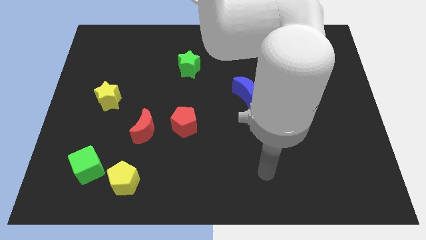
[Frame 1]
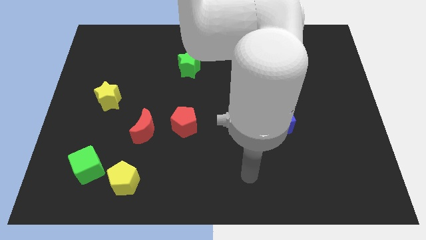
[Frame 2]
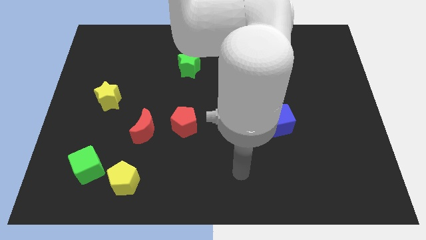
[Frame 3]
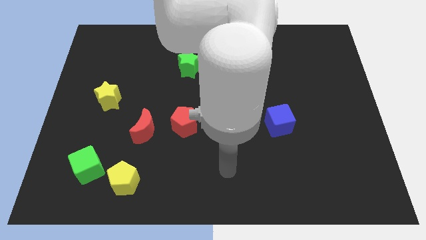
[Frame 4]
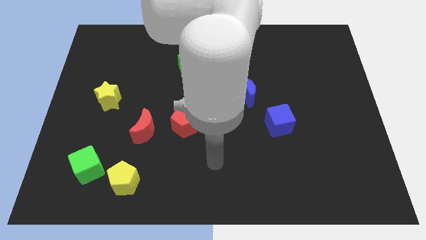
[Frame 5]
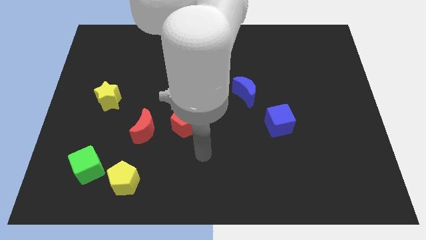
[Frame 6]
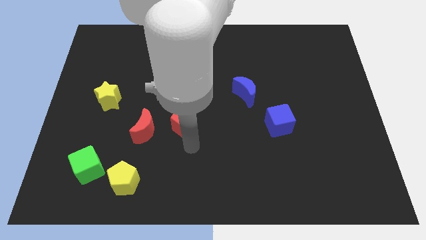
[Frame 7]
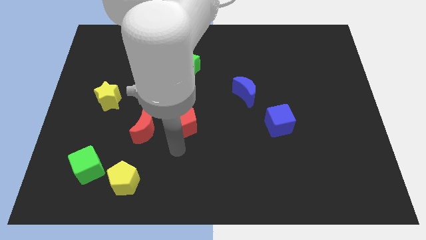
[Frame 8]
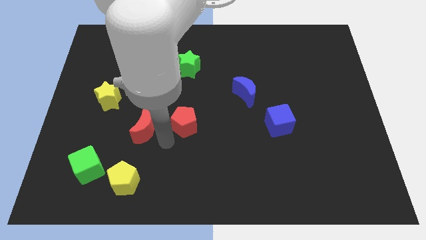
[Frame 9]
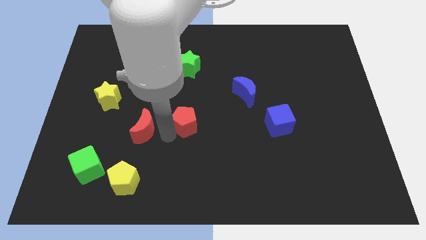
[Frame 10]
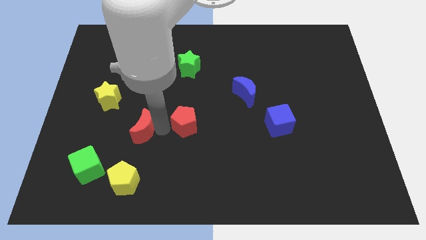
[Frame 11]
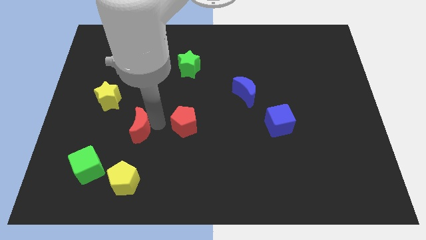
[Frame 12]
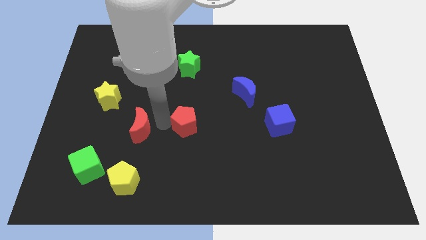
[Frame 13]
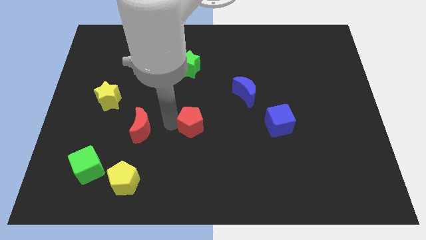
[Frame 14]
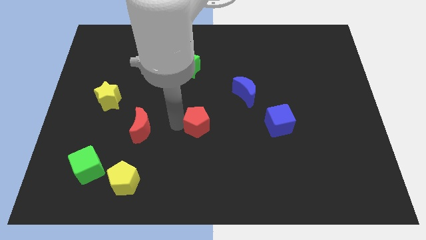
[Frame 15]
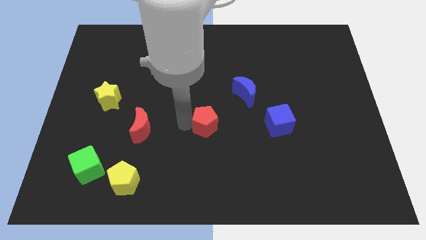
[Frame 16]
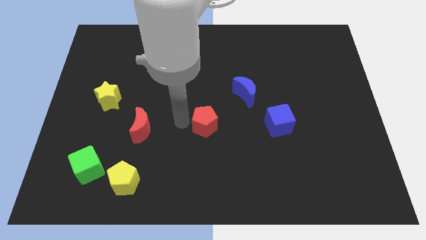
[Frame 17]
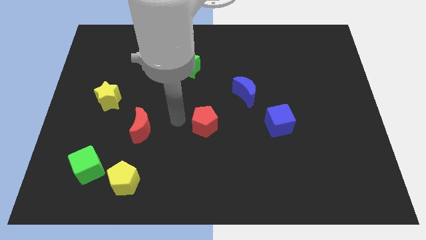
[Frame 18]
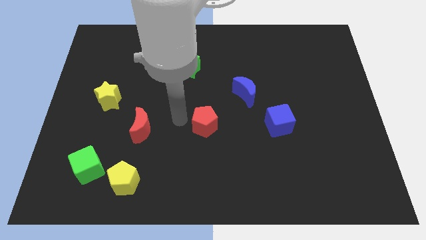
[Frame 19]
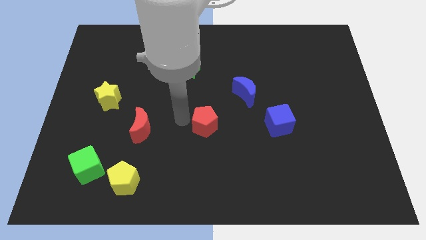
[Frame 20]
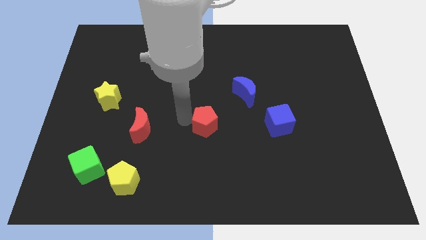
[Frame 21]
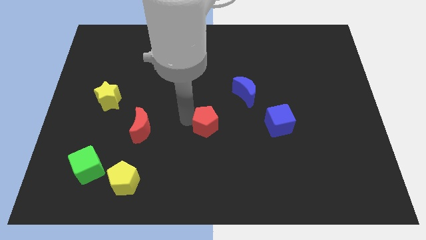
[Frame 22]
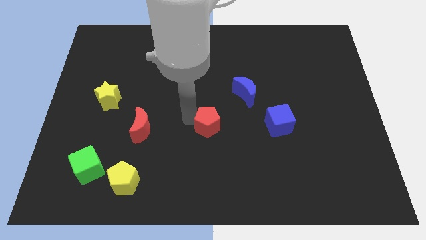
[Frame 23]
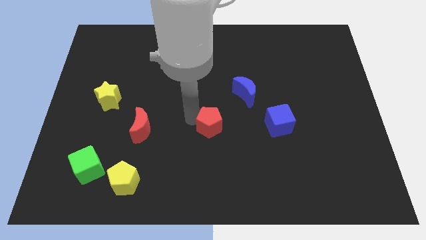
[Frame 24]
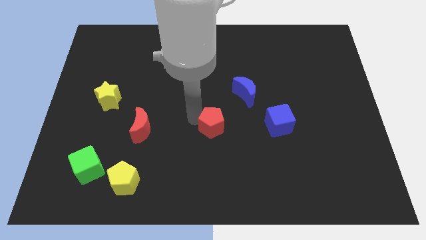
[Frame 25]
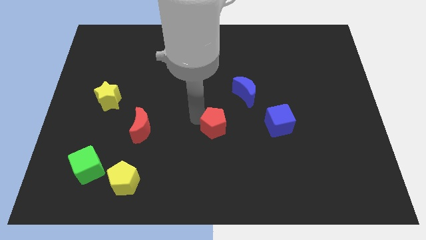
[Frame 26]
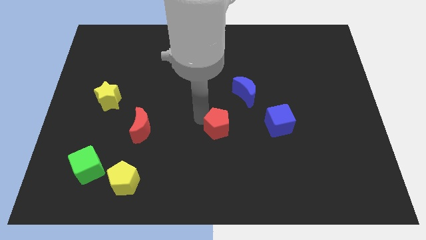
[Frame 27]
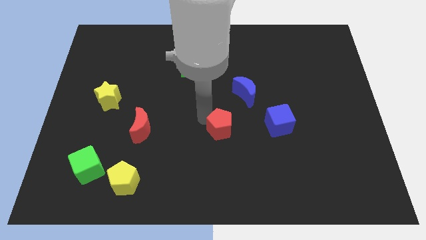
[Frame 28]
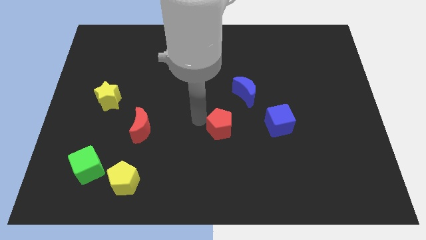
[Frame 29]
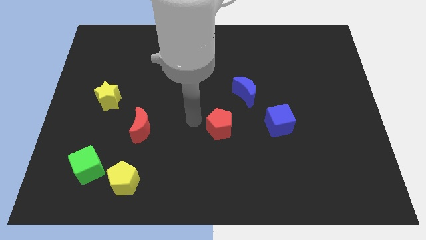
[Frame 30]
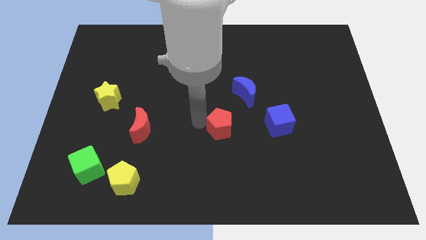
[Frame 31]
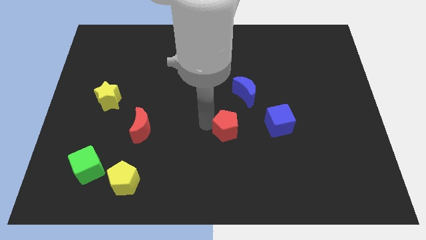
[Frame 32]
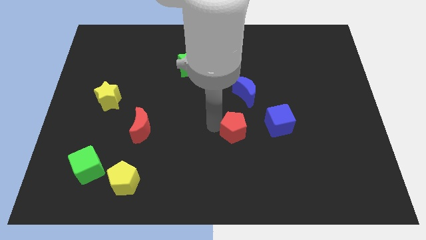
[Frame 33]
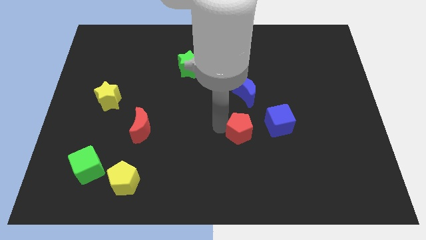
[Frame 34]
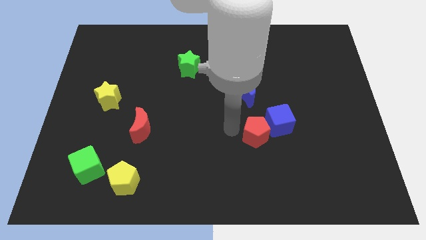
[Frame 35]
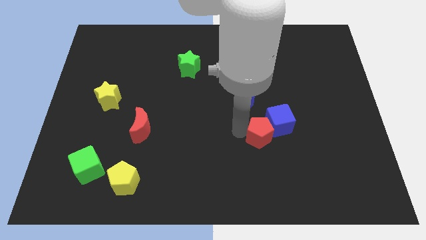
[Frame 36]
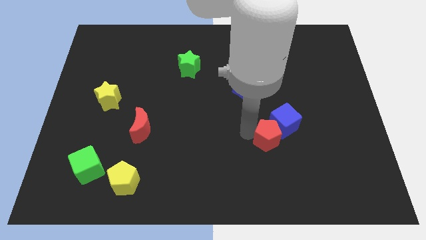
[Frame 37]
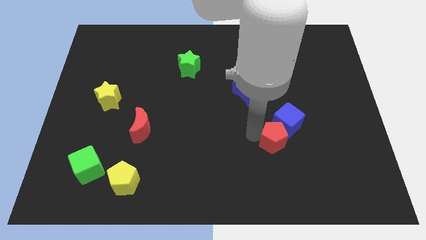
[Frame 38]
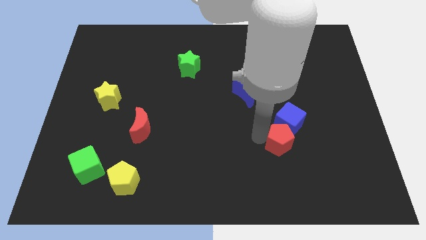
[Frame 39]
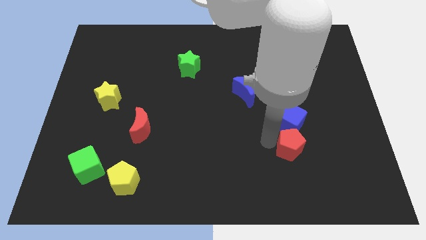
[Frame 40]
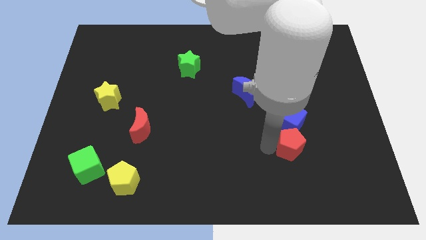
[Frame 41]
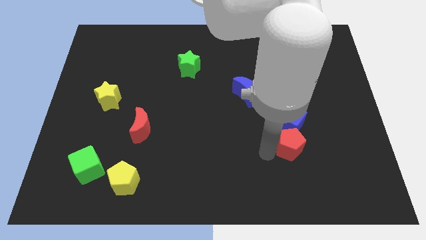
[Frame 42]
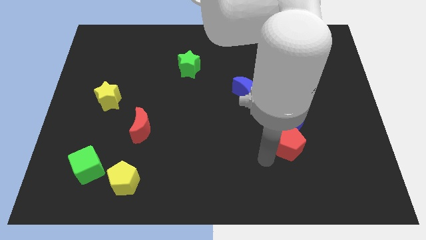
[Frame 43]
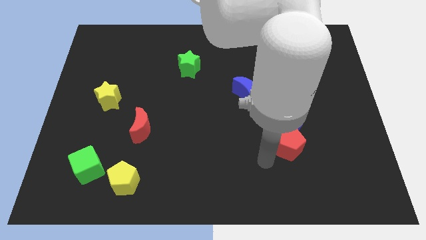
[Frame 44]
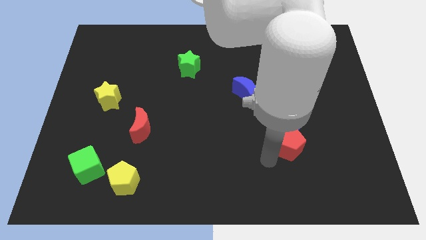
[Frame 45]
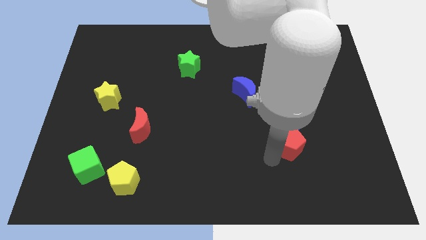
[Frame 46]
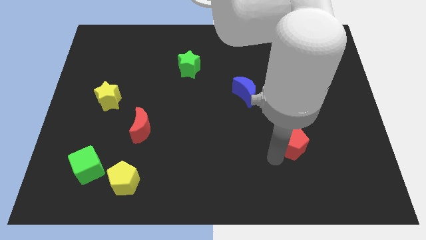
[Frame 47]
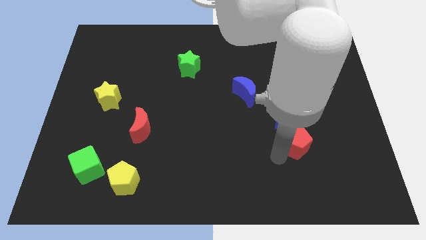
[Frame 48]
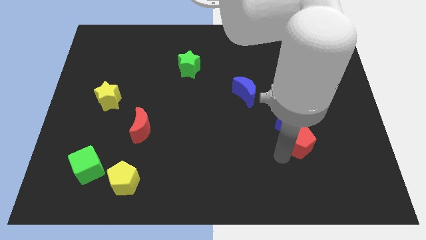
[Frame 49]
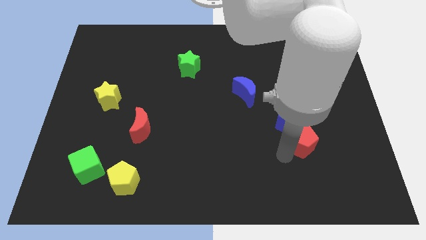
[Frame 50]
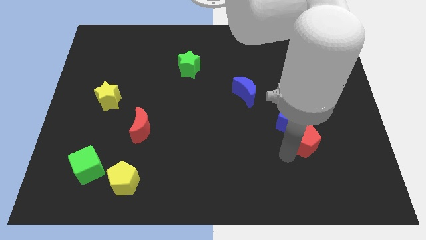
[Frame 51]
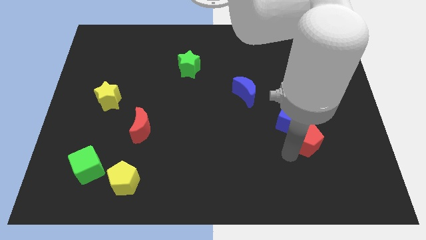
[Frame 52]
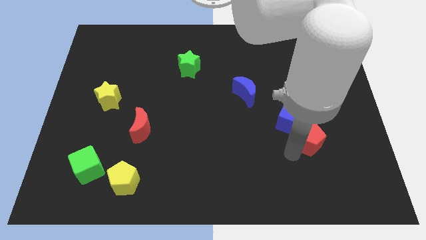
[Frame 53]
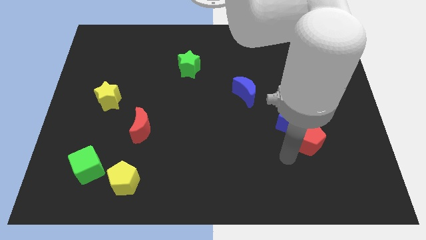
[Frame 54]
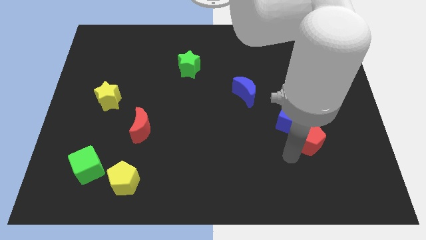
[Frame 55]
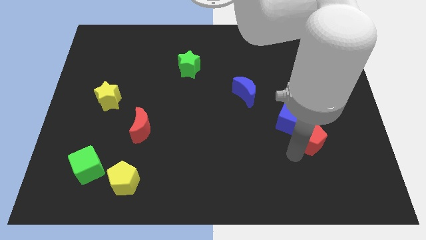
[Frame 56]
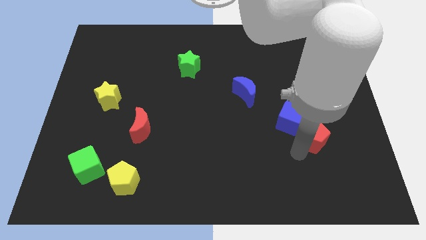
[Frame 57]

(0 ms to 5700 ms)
push the red pentagon to the right of the blue cube

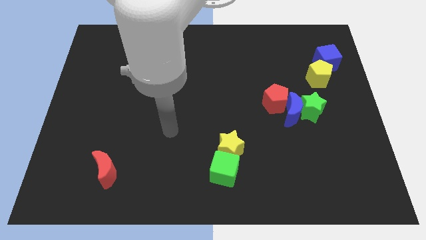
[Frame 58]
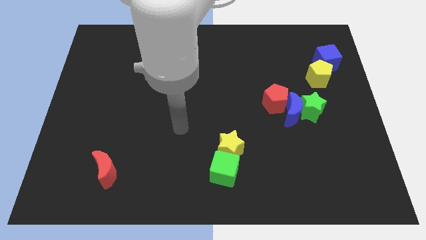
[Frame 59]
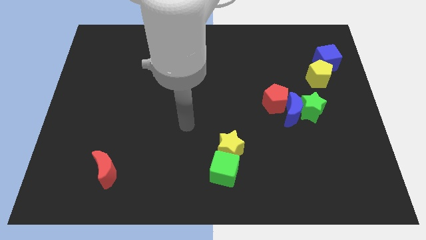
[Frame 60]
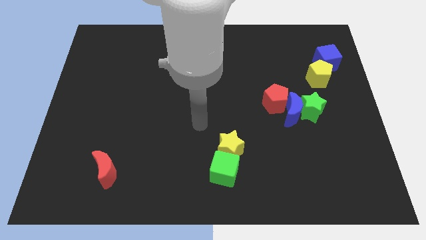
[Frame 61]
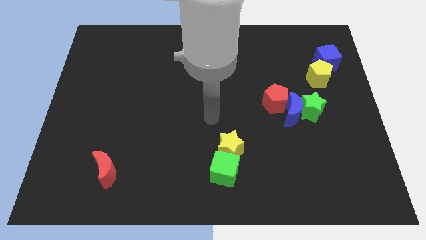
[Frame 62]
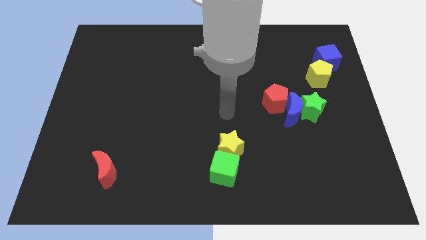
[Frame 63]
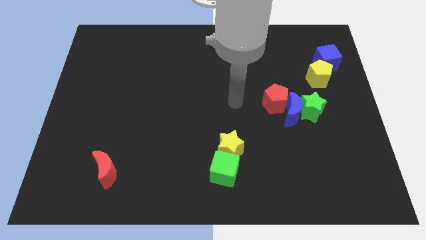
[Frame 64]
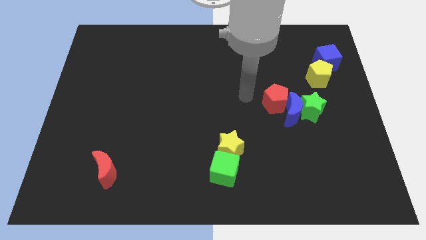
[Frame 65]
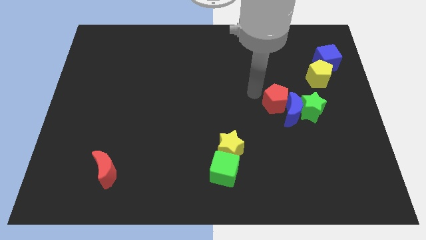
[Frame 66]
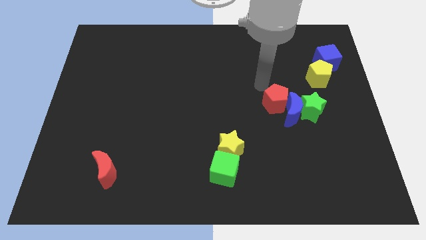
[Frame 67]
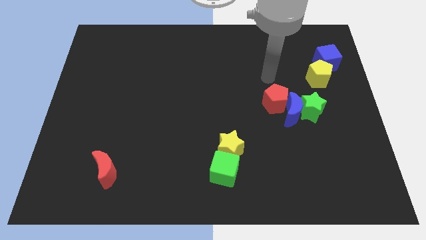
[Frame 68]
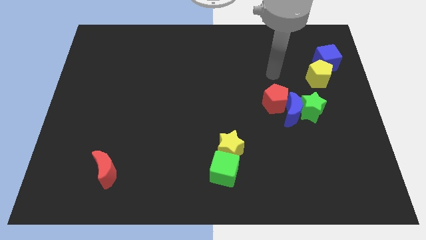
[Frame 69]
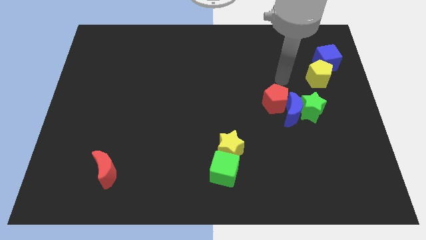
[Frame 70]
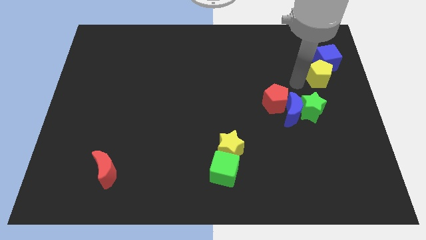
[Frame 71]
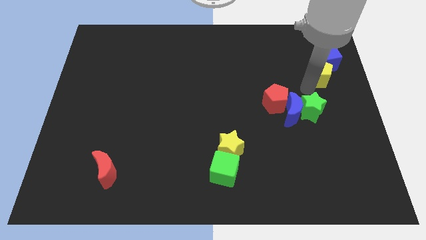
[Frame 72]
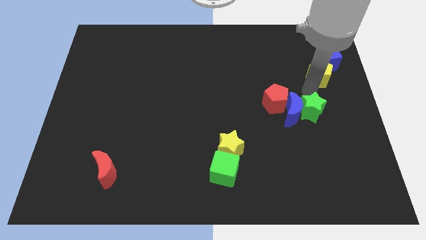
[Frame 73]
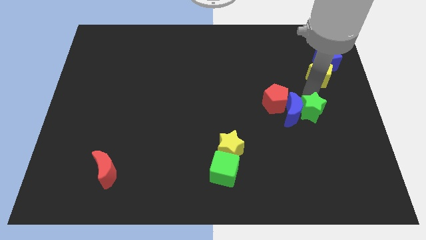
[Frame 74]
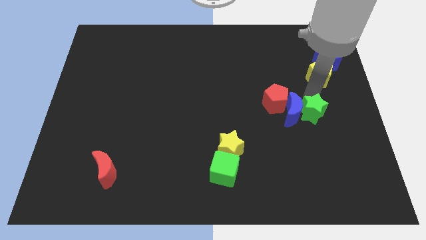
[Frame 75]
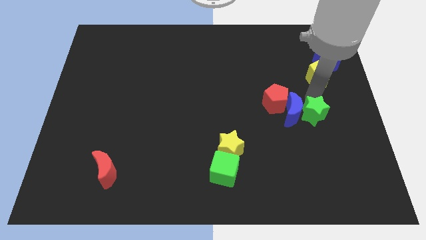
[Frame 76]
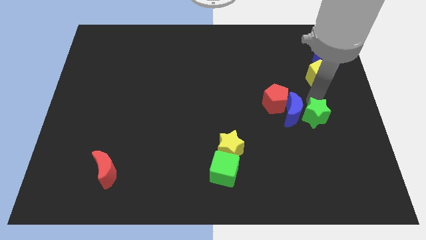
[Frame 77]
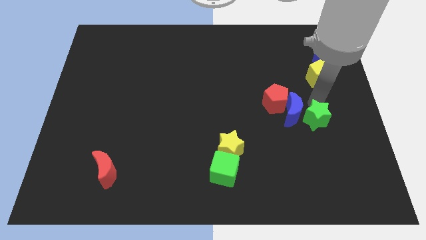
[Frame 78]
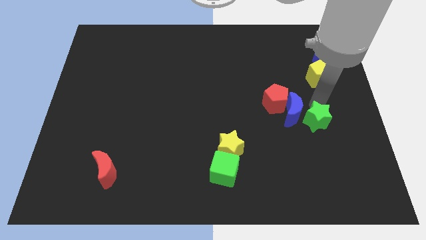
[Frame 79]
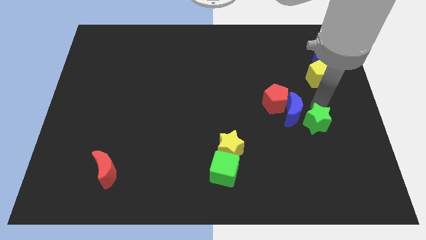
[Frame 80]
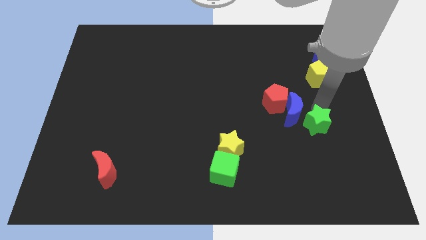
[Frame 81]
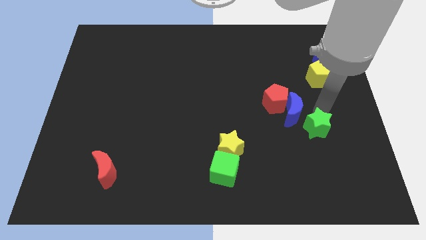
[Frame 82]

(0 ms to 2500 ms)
push the green star to the bottom side of the blue moon
